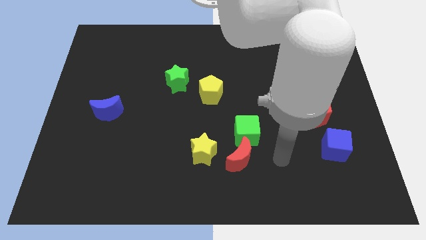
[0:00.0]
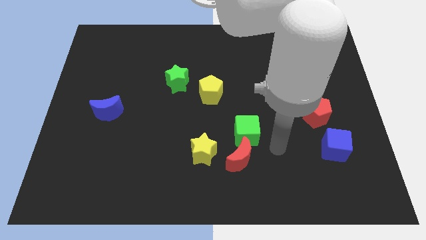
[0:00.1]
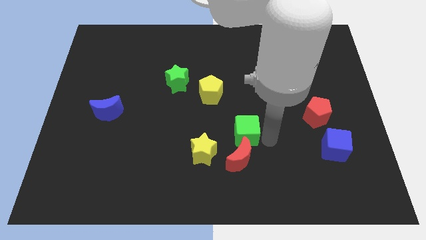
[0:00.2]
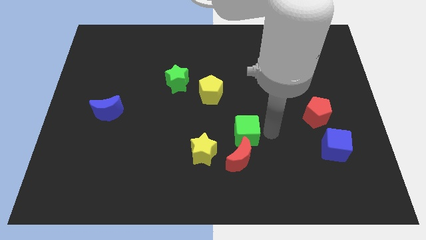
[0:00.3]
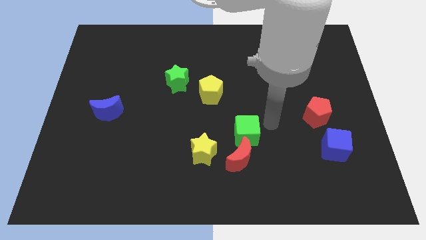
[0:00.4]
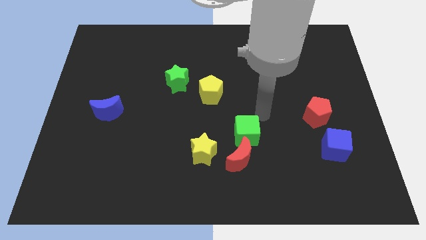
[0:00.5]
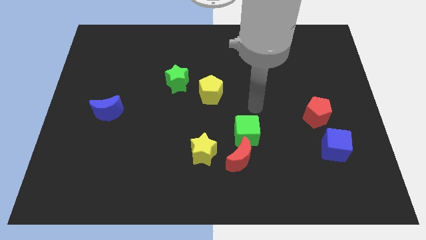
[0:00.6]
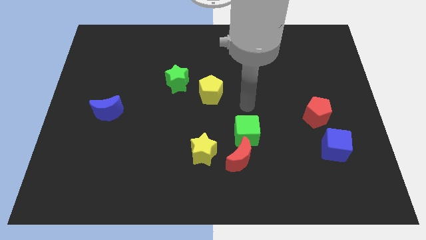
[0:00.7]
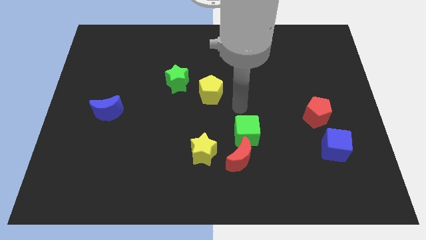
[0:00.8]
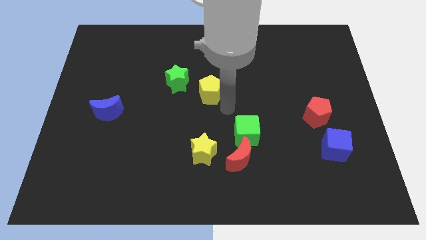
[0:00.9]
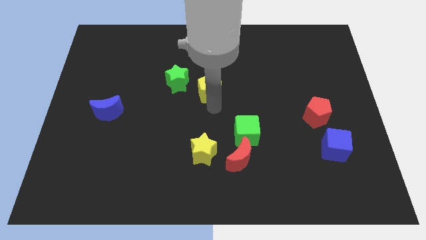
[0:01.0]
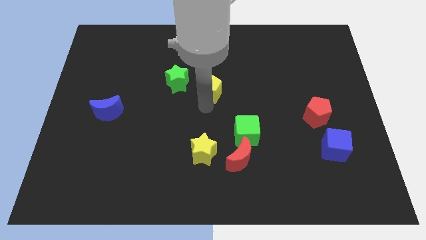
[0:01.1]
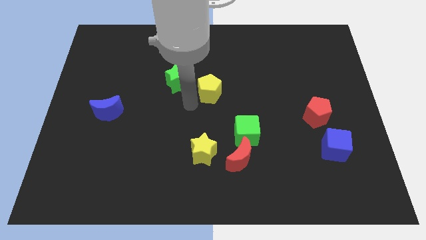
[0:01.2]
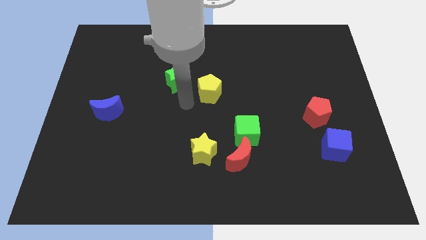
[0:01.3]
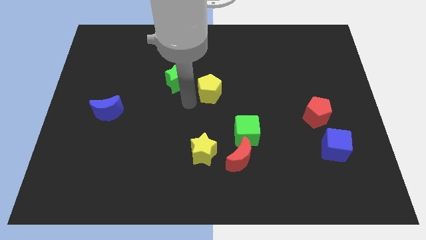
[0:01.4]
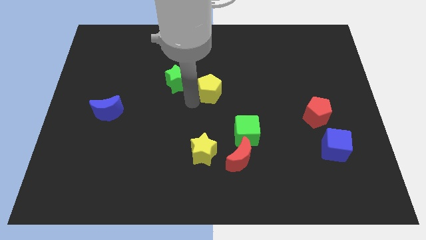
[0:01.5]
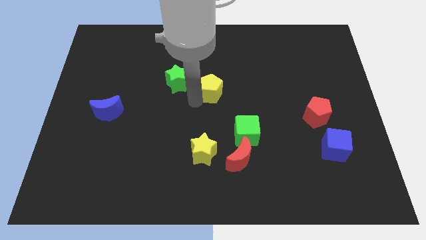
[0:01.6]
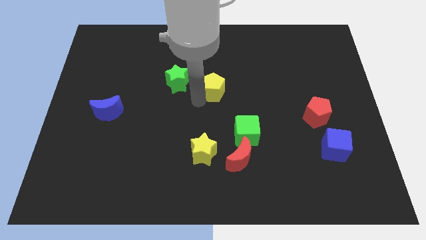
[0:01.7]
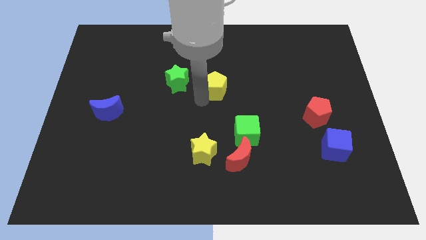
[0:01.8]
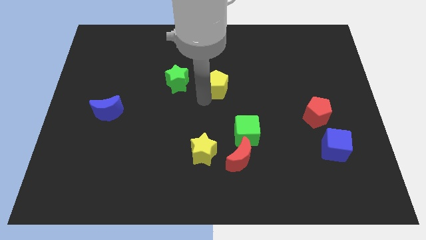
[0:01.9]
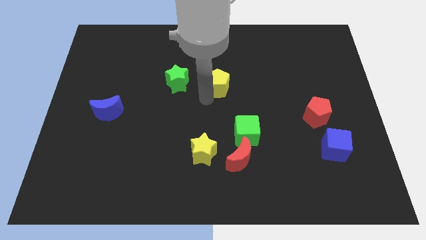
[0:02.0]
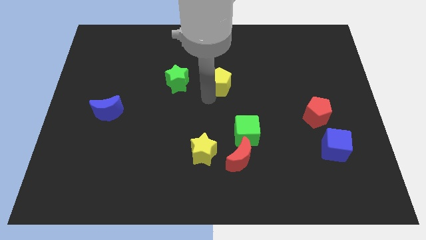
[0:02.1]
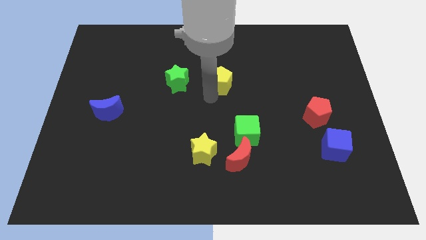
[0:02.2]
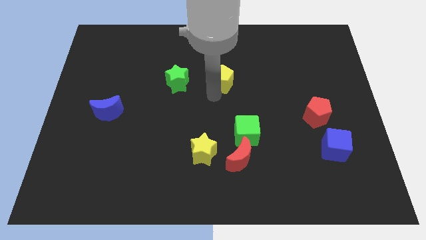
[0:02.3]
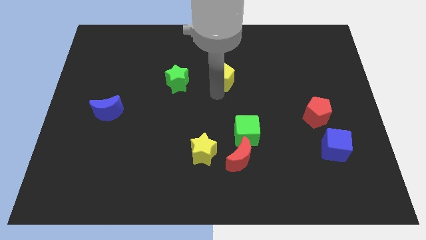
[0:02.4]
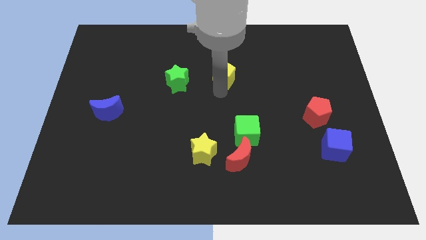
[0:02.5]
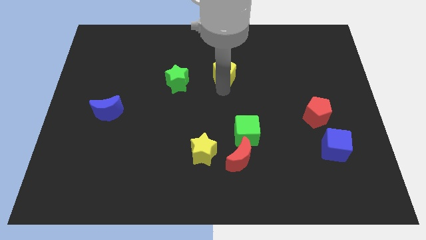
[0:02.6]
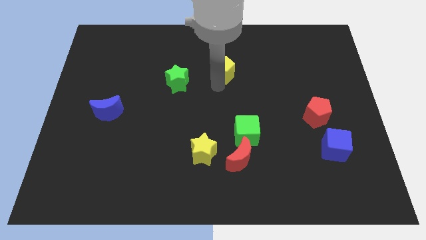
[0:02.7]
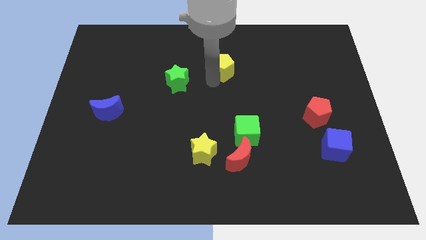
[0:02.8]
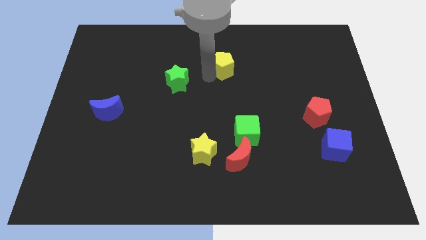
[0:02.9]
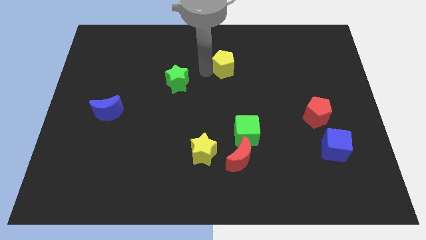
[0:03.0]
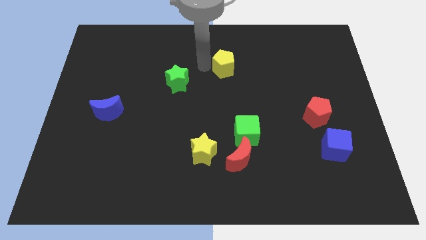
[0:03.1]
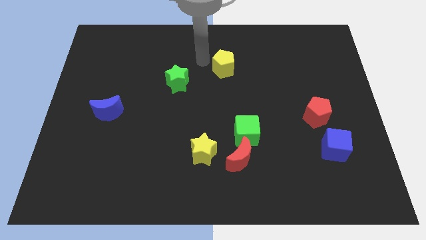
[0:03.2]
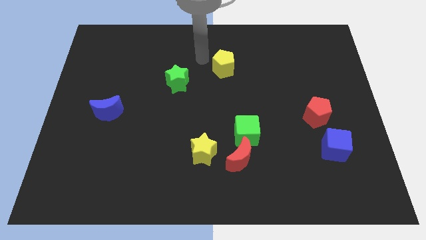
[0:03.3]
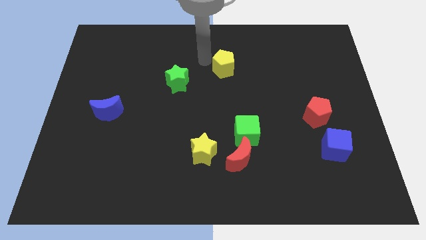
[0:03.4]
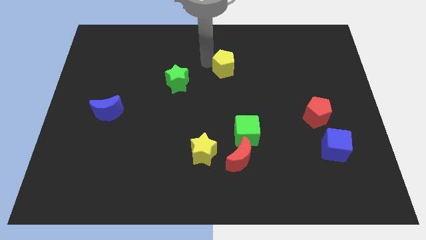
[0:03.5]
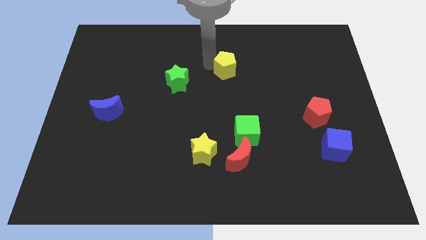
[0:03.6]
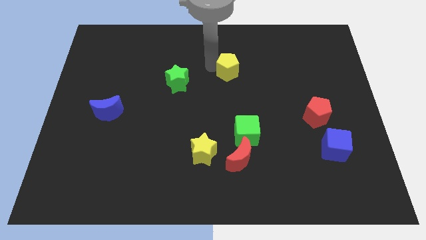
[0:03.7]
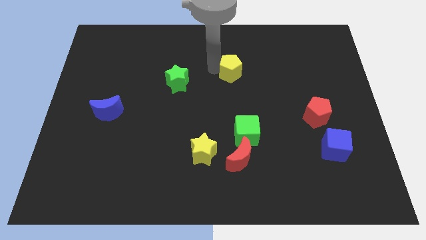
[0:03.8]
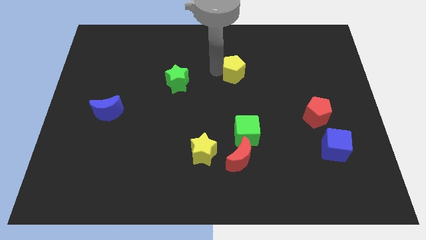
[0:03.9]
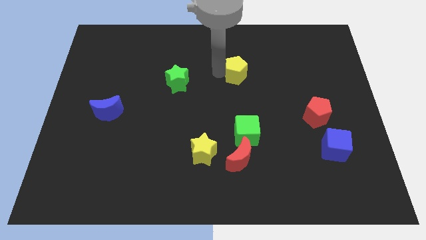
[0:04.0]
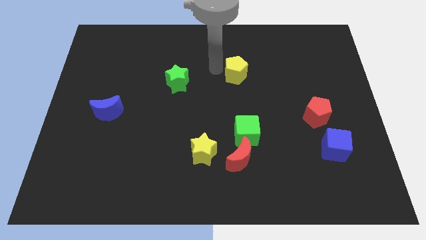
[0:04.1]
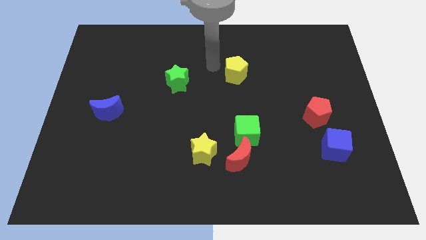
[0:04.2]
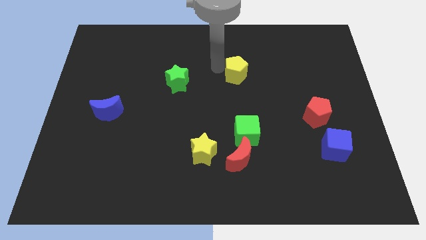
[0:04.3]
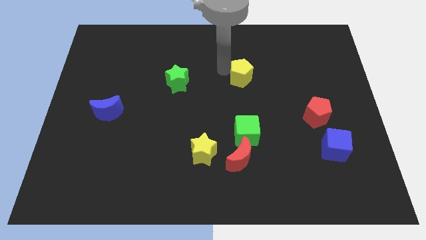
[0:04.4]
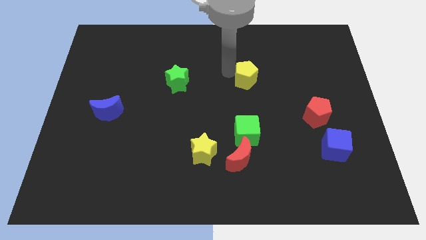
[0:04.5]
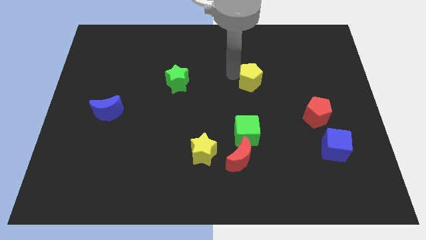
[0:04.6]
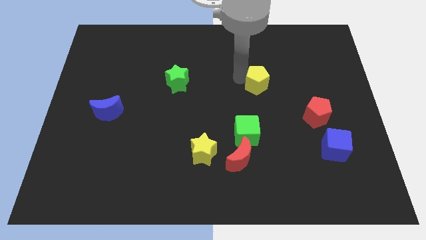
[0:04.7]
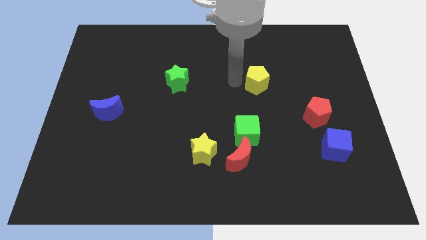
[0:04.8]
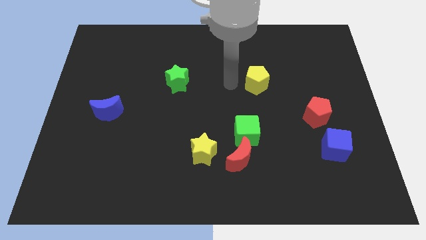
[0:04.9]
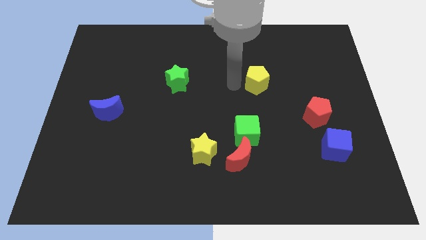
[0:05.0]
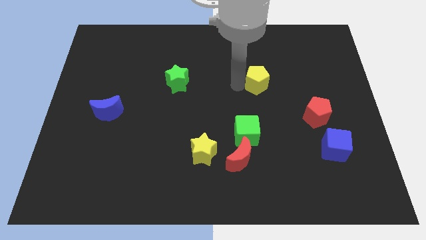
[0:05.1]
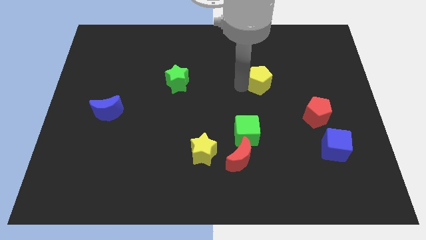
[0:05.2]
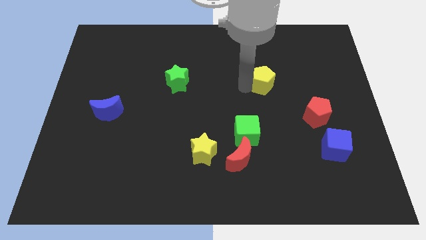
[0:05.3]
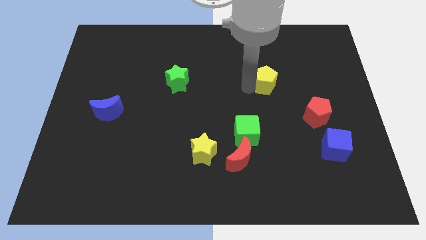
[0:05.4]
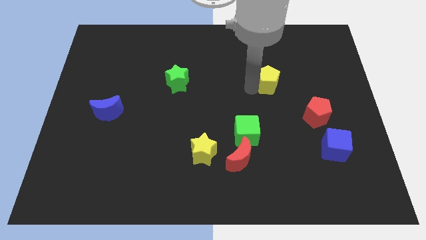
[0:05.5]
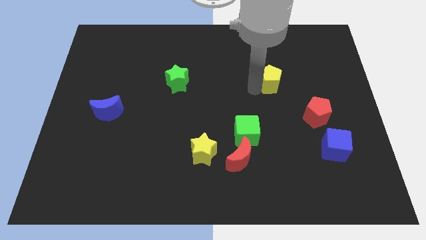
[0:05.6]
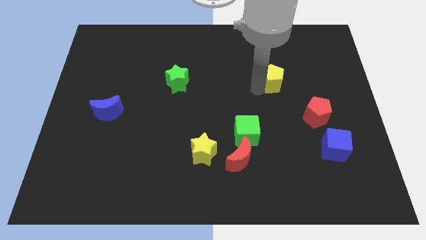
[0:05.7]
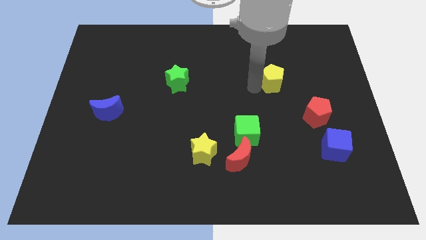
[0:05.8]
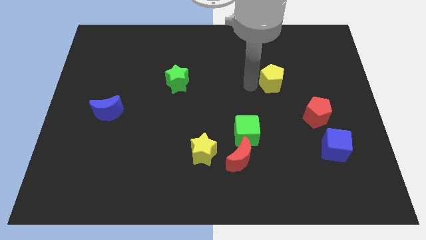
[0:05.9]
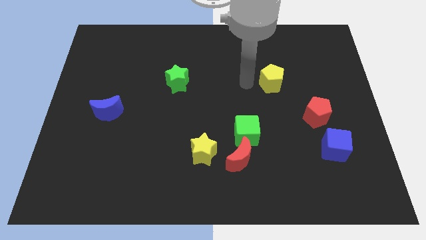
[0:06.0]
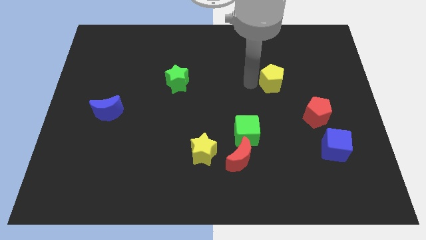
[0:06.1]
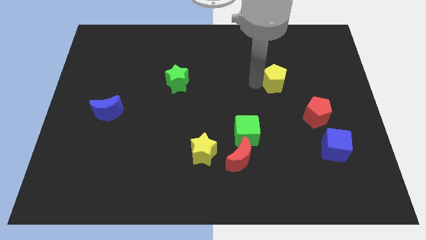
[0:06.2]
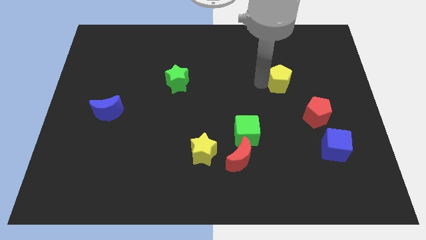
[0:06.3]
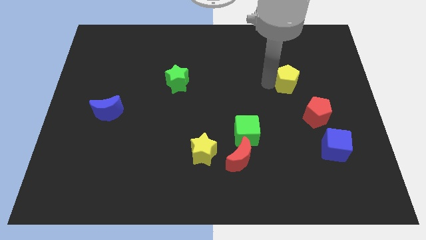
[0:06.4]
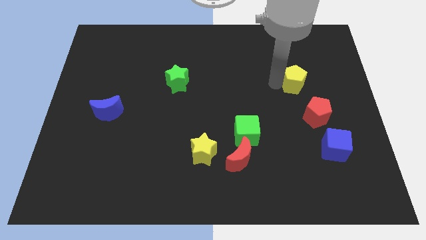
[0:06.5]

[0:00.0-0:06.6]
slide the yellow pentagon to the top of the red pentagon
